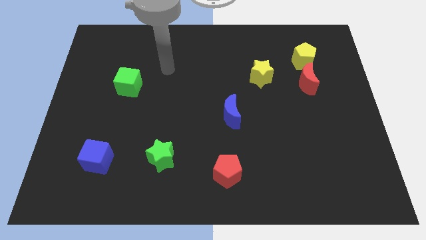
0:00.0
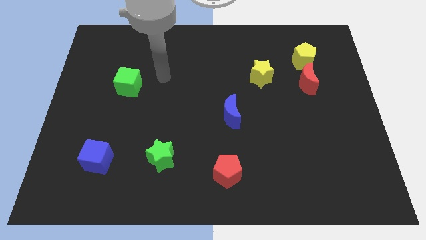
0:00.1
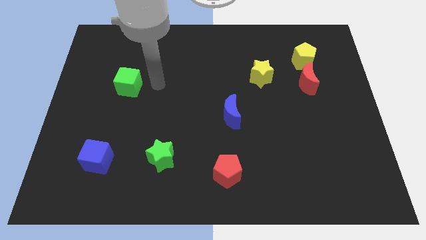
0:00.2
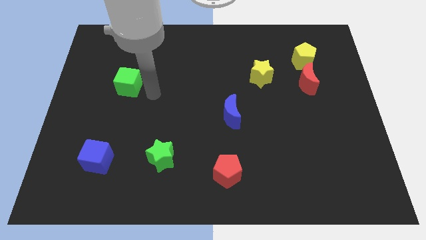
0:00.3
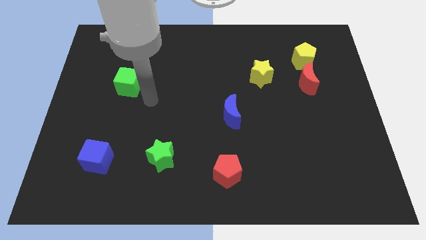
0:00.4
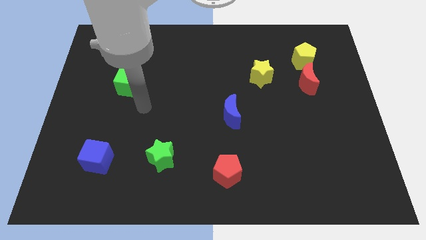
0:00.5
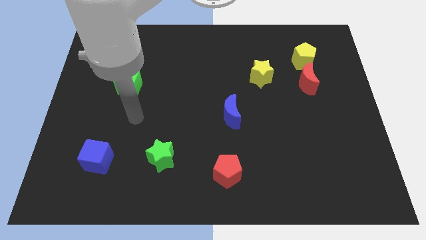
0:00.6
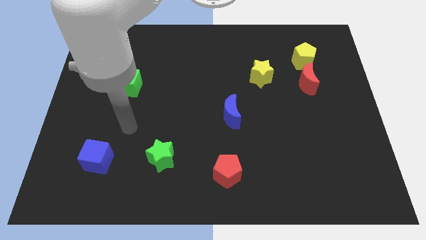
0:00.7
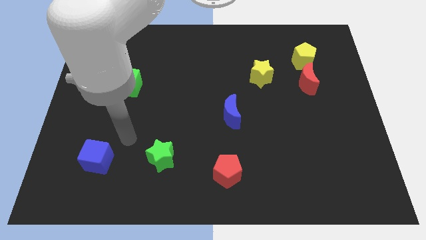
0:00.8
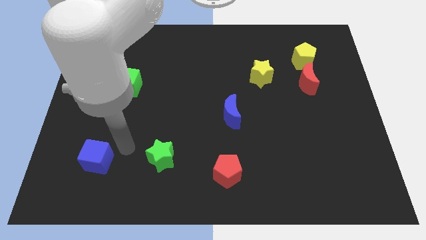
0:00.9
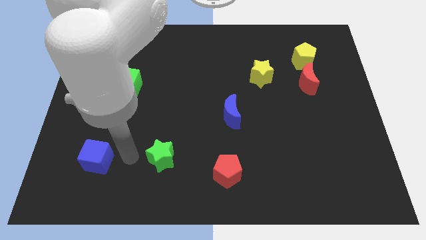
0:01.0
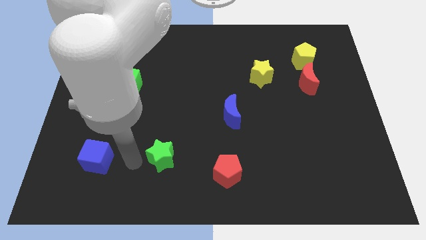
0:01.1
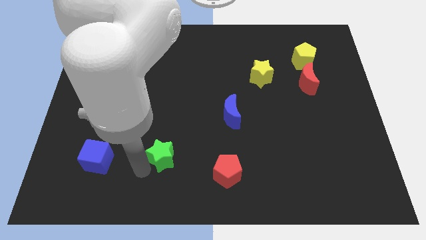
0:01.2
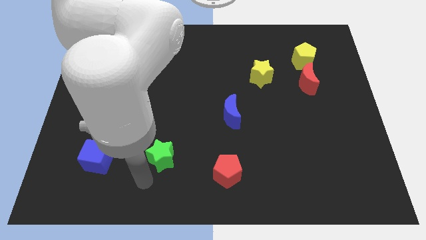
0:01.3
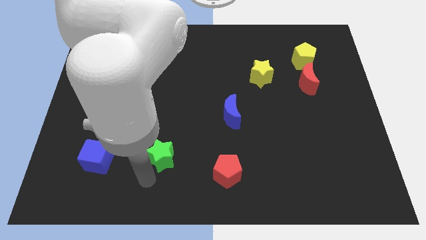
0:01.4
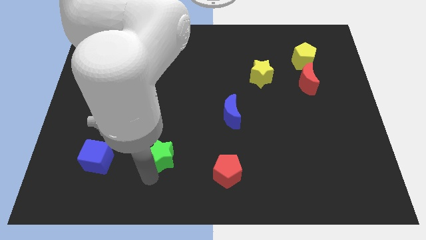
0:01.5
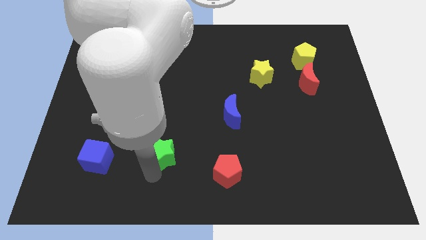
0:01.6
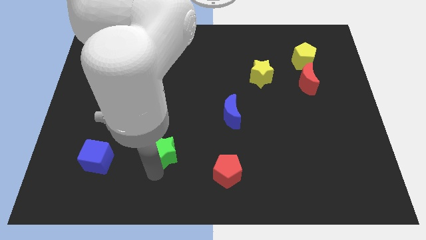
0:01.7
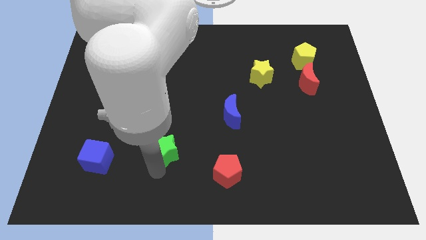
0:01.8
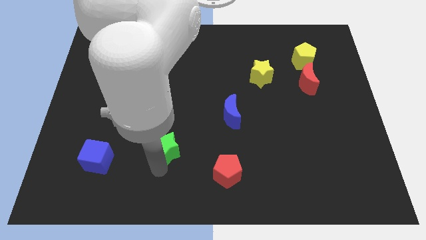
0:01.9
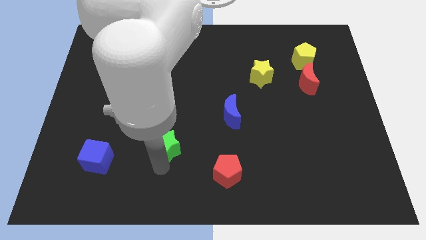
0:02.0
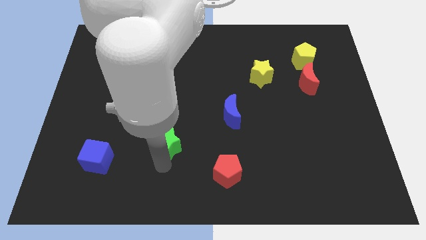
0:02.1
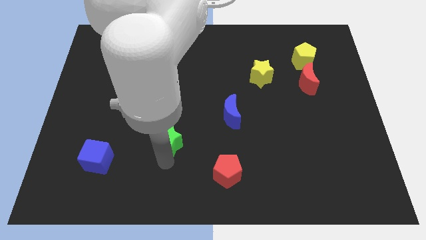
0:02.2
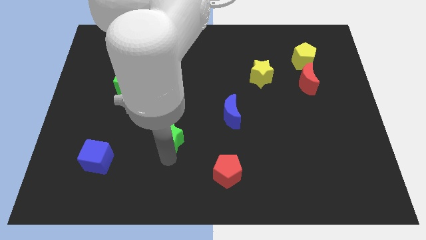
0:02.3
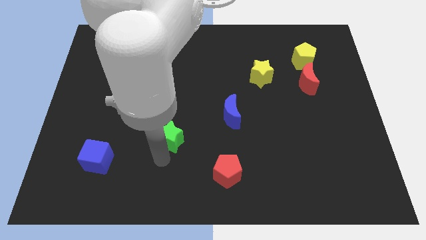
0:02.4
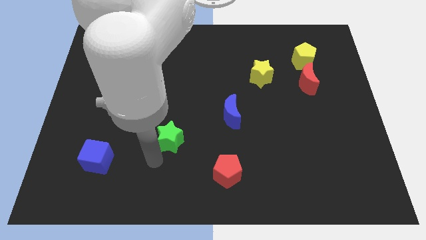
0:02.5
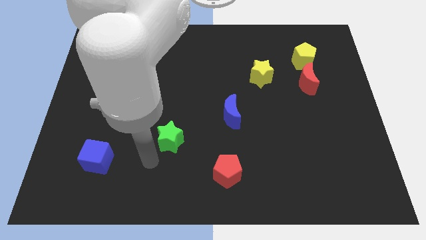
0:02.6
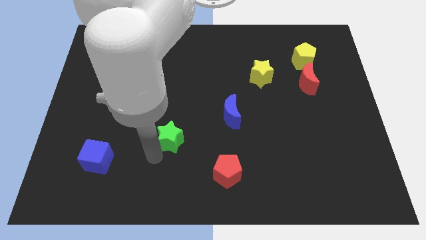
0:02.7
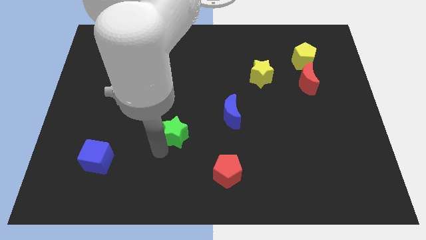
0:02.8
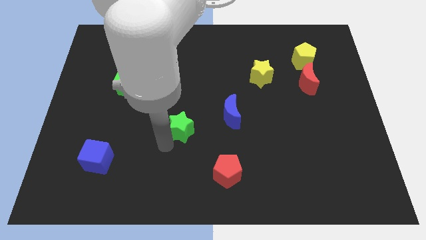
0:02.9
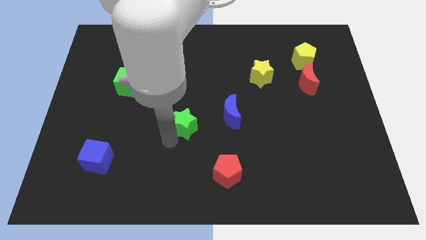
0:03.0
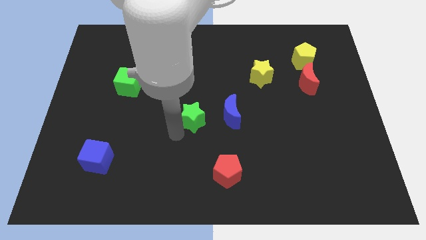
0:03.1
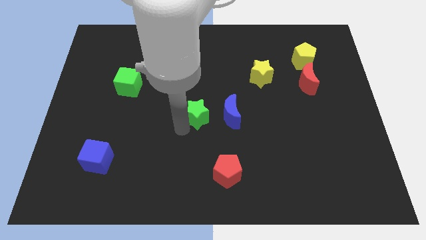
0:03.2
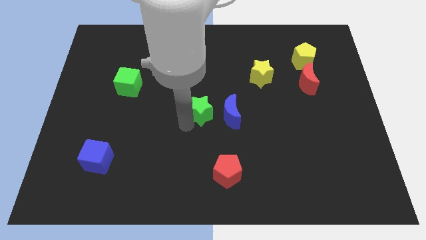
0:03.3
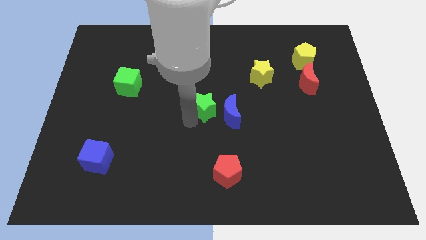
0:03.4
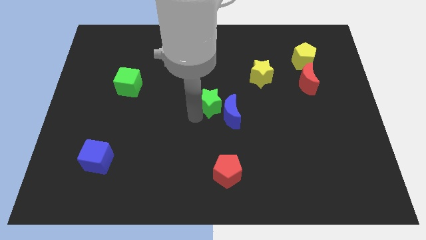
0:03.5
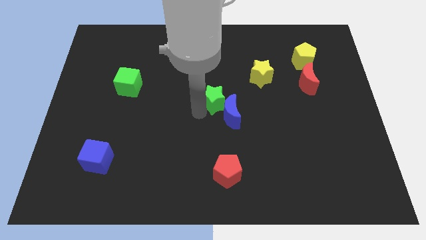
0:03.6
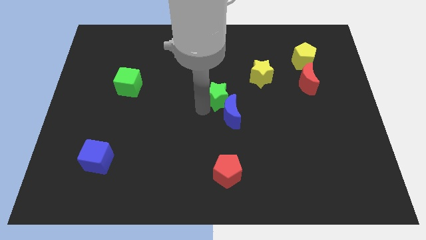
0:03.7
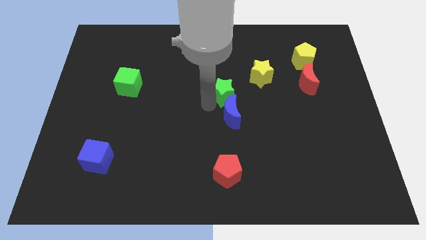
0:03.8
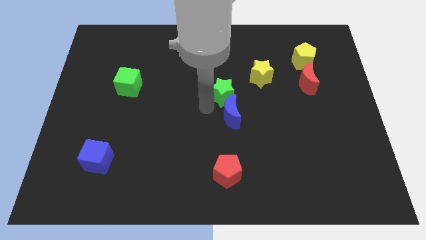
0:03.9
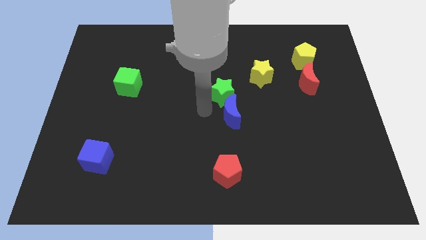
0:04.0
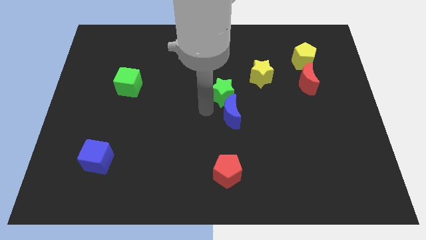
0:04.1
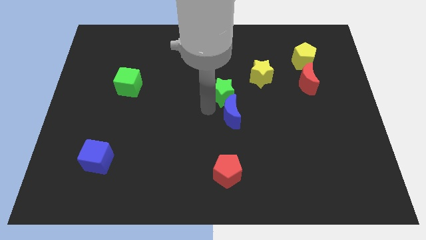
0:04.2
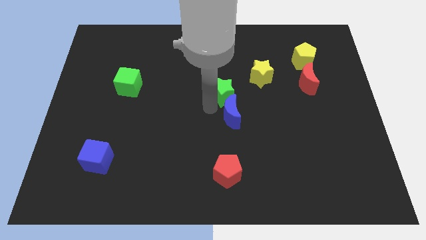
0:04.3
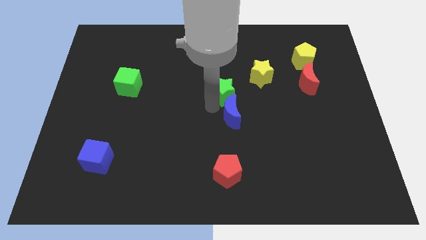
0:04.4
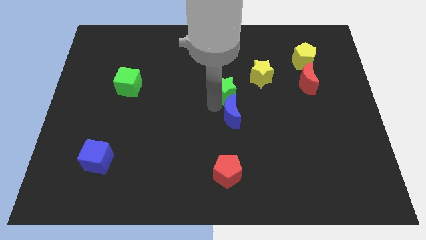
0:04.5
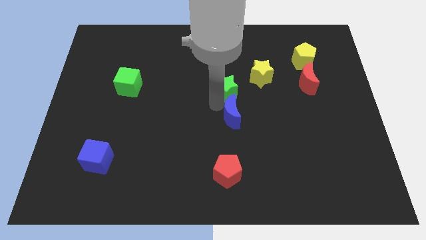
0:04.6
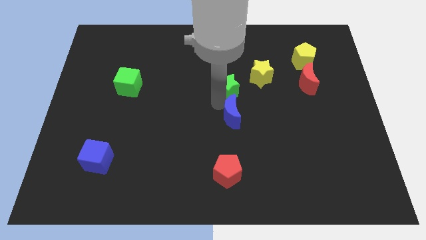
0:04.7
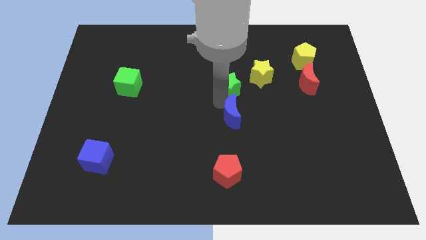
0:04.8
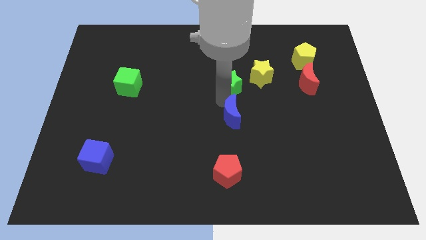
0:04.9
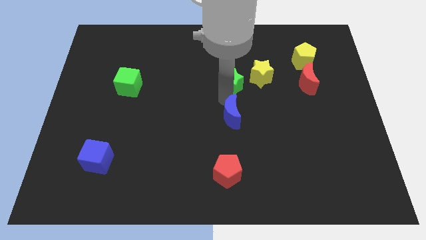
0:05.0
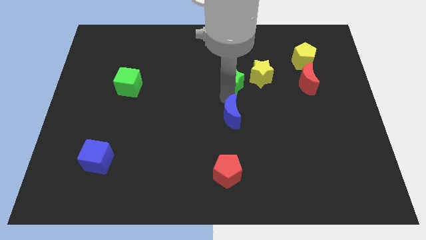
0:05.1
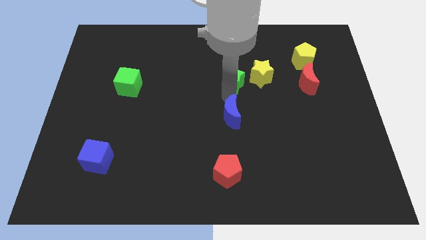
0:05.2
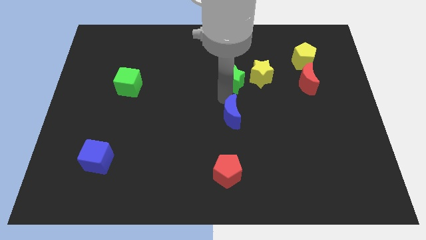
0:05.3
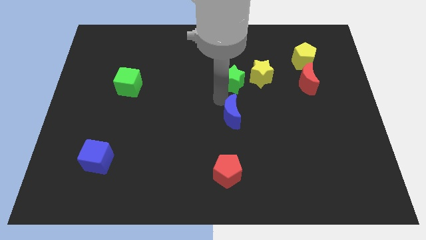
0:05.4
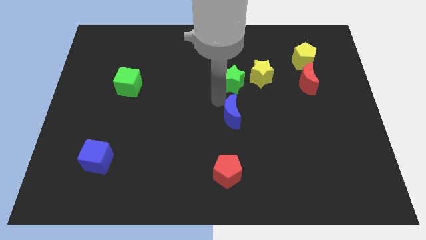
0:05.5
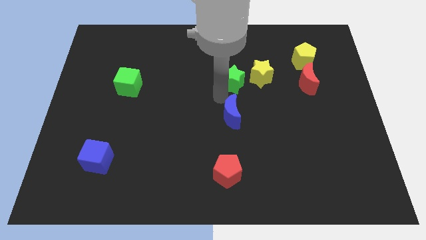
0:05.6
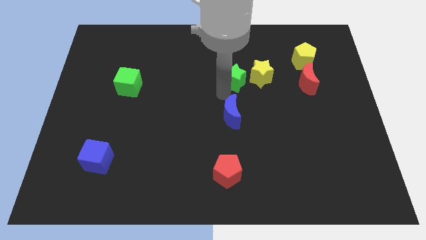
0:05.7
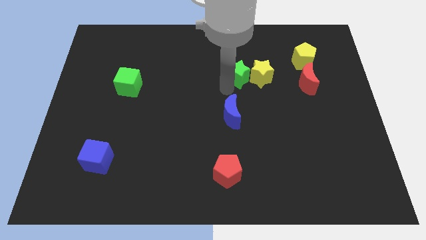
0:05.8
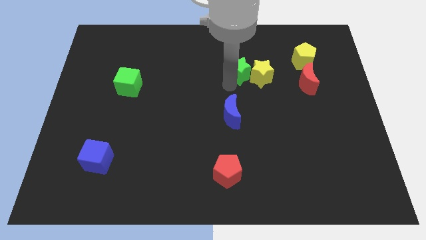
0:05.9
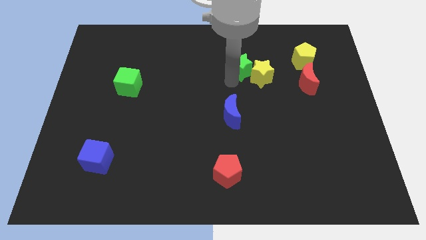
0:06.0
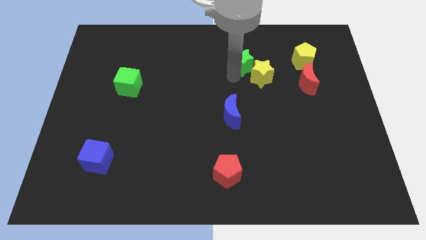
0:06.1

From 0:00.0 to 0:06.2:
put the green star left of the yellow pentagon
